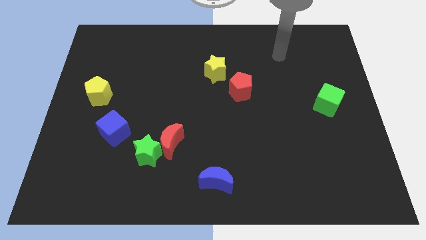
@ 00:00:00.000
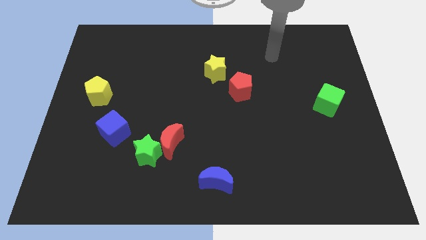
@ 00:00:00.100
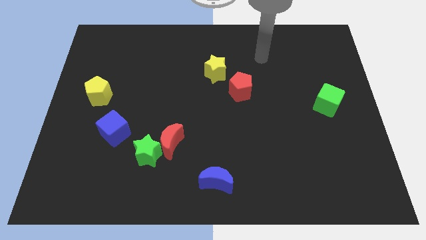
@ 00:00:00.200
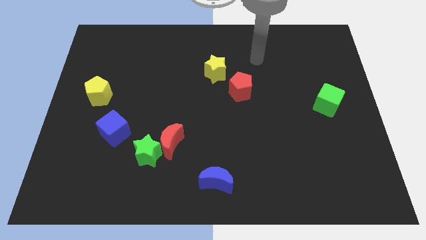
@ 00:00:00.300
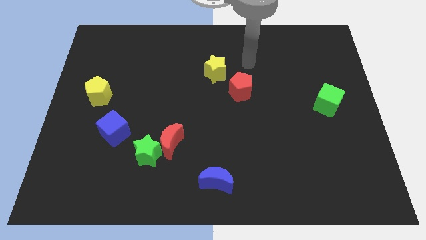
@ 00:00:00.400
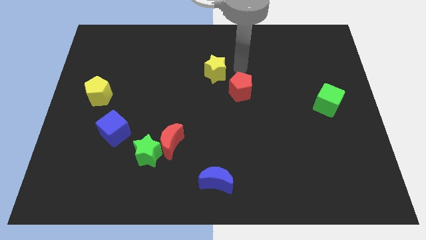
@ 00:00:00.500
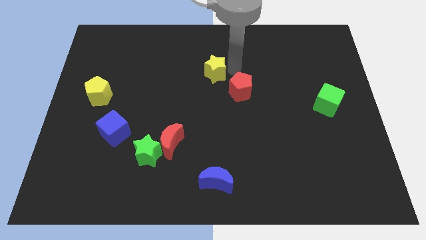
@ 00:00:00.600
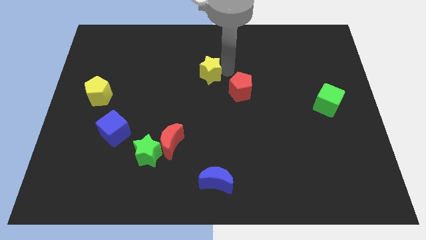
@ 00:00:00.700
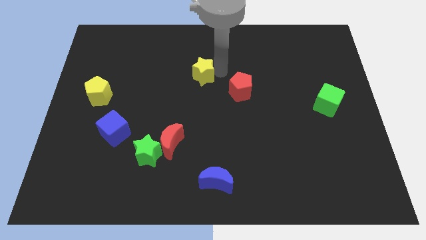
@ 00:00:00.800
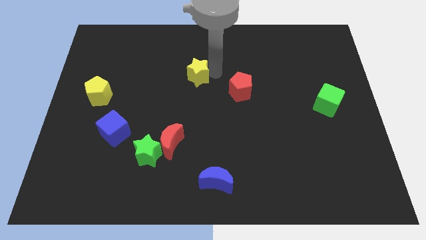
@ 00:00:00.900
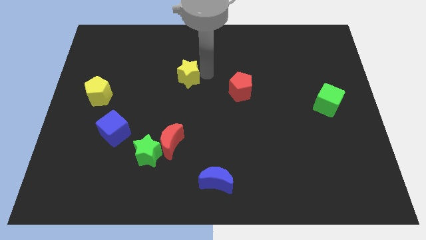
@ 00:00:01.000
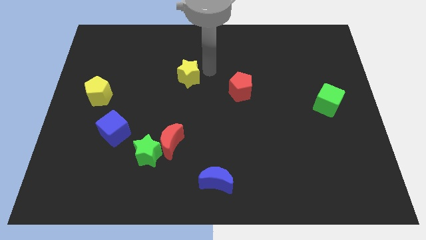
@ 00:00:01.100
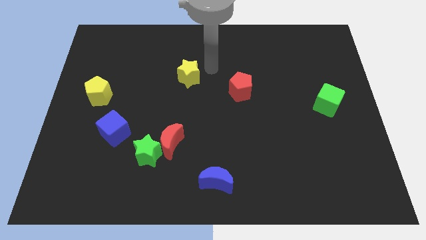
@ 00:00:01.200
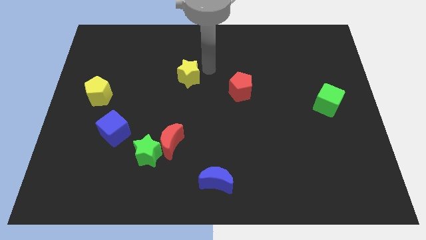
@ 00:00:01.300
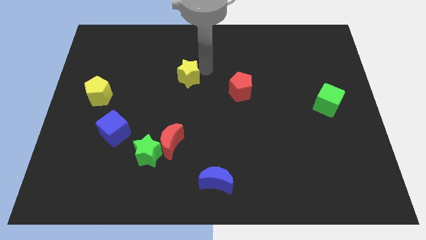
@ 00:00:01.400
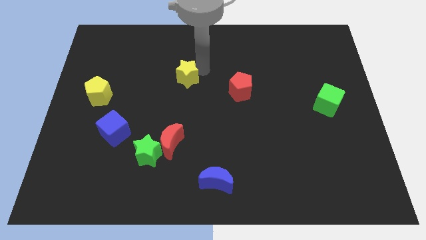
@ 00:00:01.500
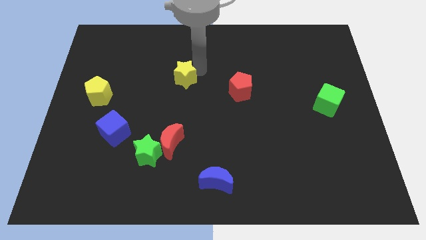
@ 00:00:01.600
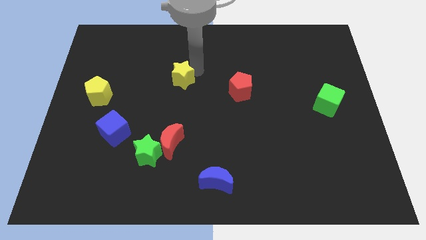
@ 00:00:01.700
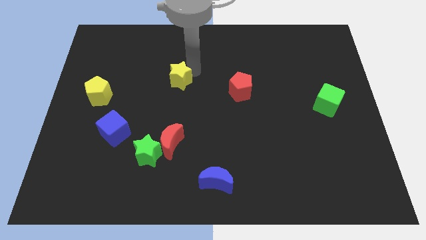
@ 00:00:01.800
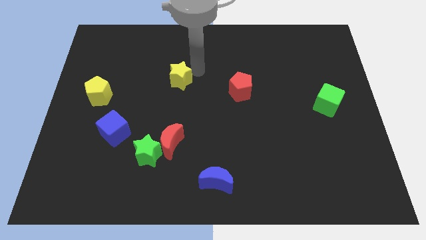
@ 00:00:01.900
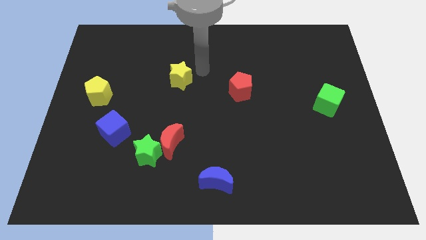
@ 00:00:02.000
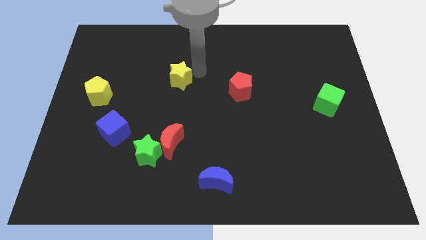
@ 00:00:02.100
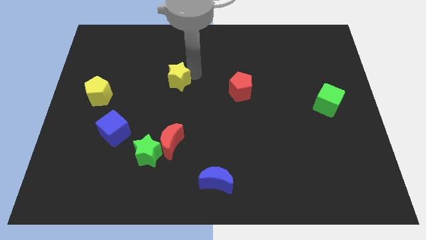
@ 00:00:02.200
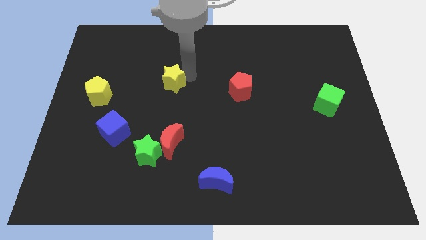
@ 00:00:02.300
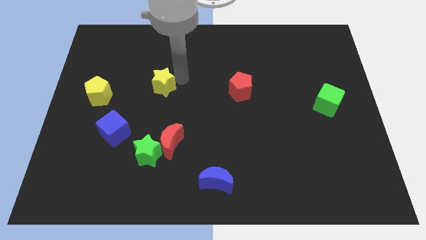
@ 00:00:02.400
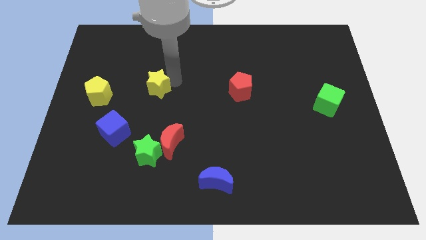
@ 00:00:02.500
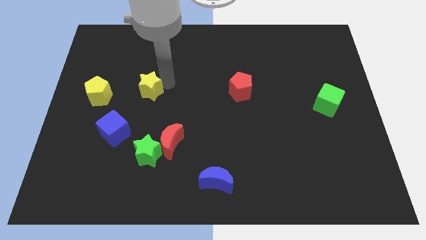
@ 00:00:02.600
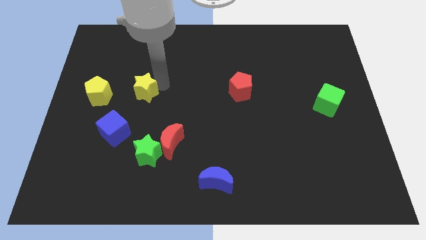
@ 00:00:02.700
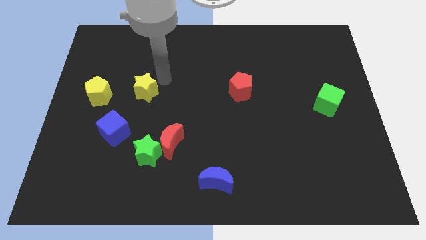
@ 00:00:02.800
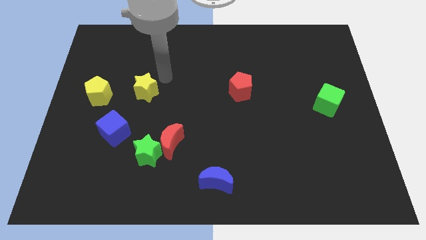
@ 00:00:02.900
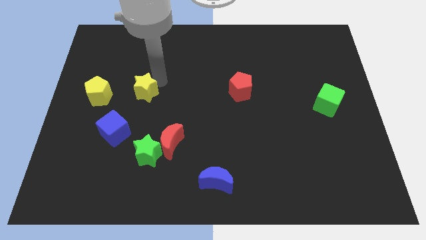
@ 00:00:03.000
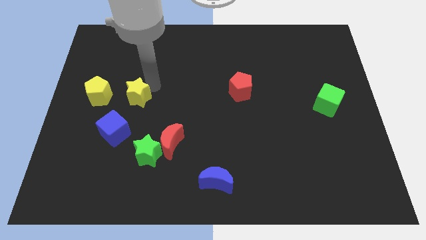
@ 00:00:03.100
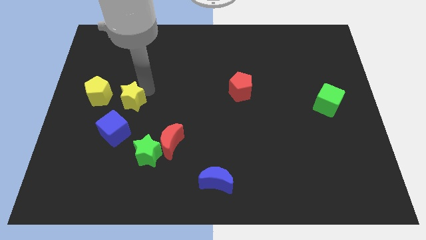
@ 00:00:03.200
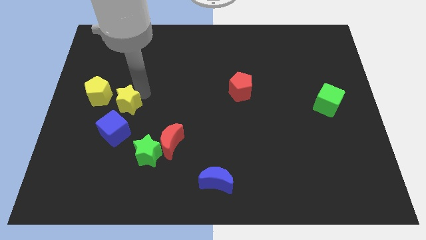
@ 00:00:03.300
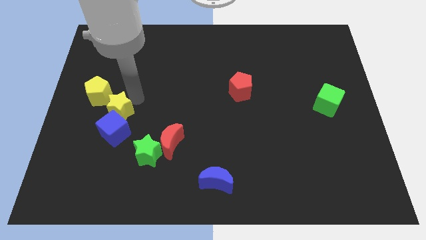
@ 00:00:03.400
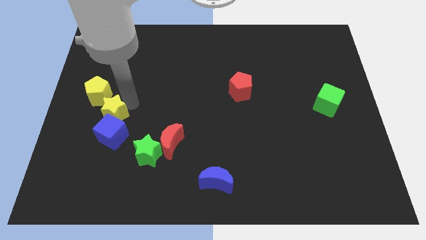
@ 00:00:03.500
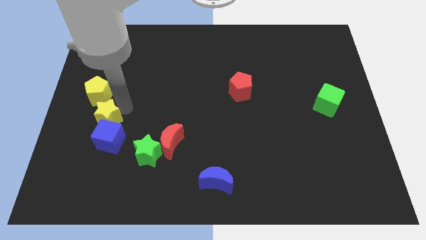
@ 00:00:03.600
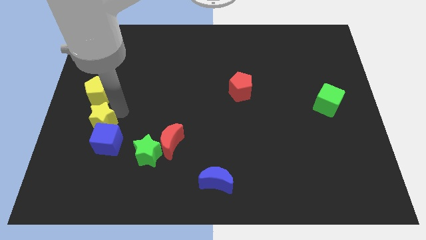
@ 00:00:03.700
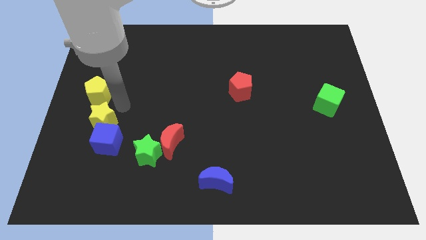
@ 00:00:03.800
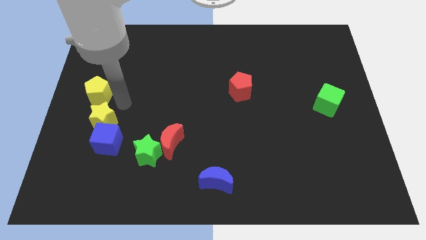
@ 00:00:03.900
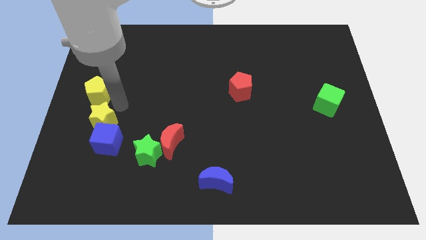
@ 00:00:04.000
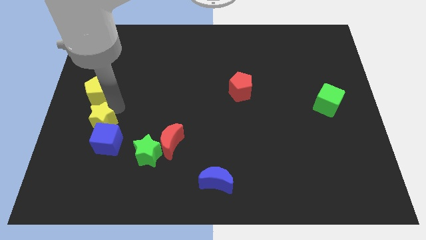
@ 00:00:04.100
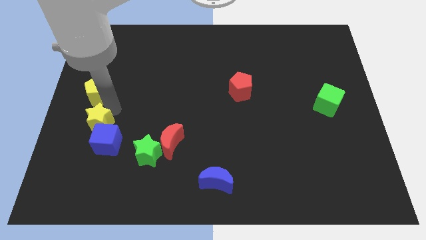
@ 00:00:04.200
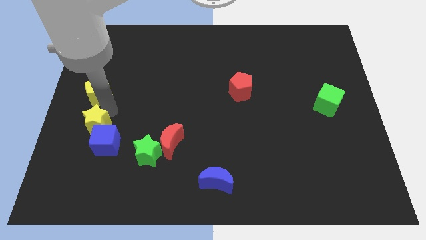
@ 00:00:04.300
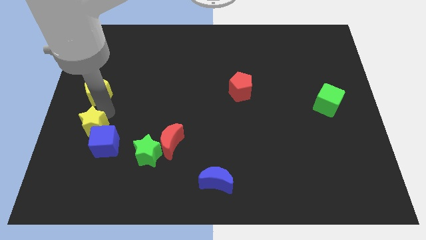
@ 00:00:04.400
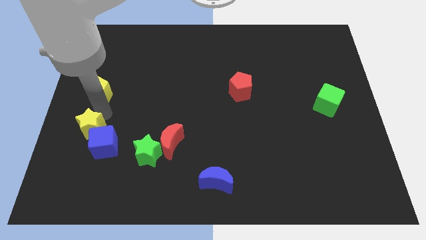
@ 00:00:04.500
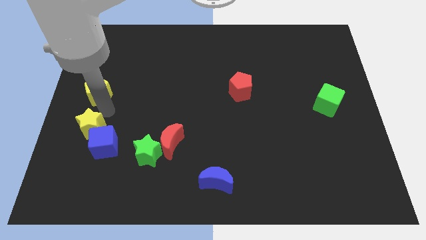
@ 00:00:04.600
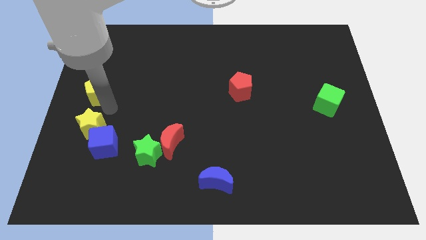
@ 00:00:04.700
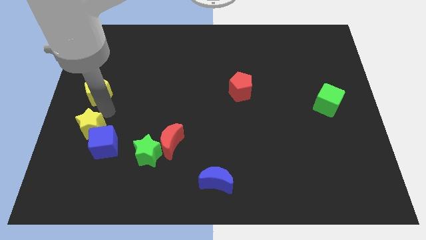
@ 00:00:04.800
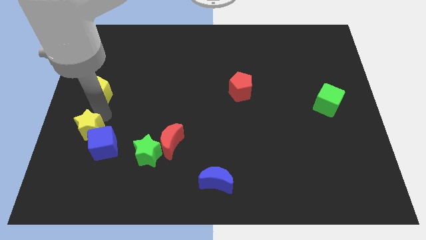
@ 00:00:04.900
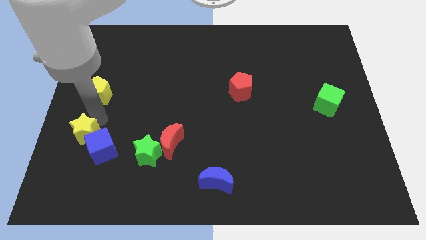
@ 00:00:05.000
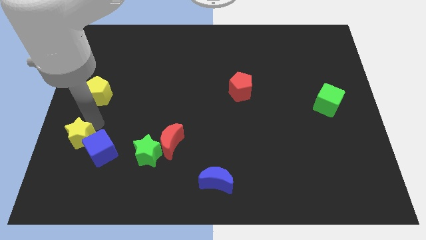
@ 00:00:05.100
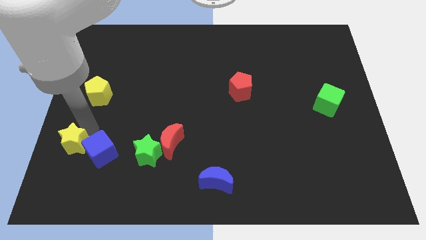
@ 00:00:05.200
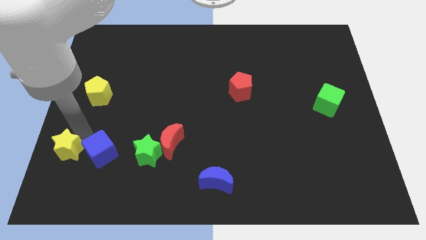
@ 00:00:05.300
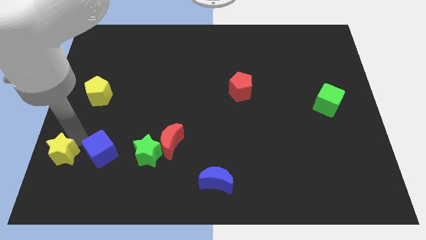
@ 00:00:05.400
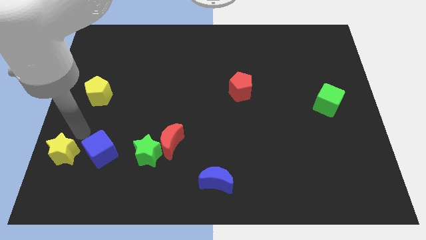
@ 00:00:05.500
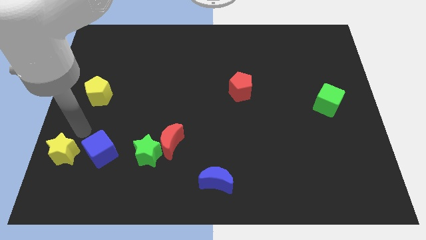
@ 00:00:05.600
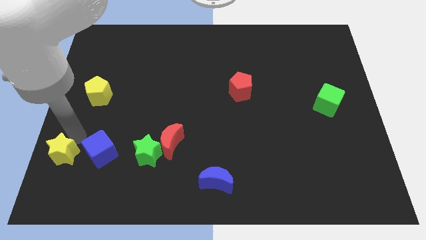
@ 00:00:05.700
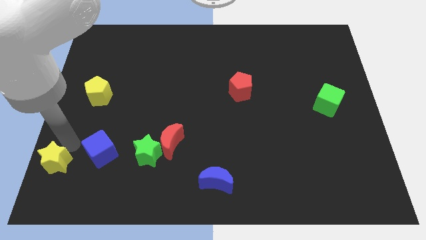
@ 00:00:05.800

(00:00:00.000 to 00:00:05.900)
slide the yellow star to the bottom left corner
